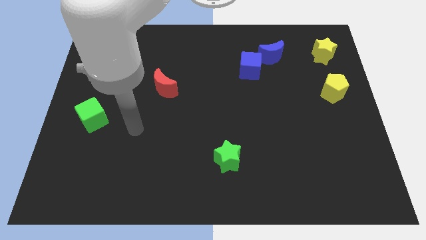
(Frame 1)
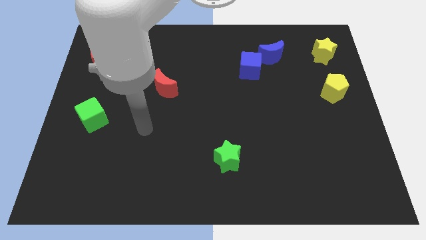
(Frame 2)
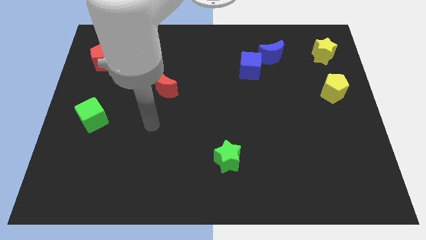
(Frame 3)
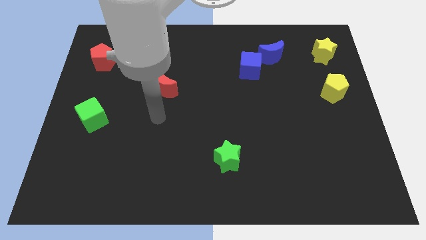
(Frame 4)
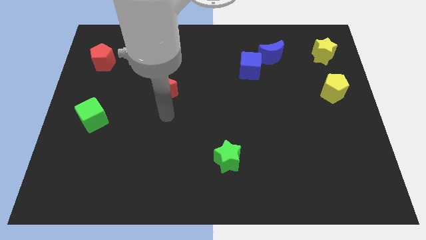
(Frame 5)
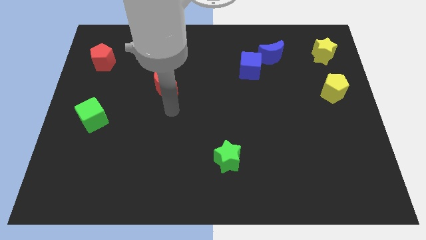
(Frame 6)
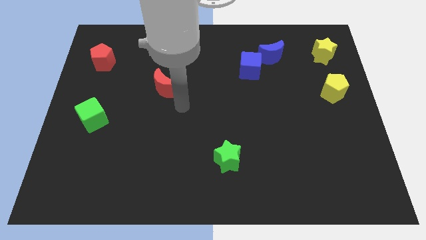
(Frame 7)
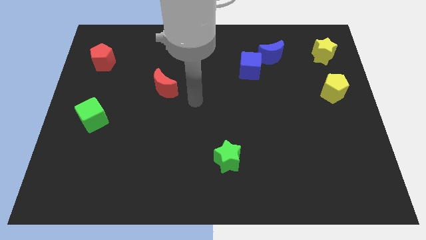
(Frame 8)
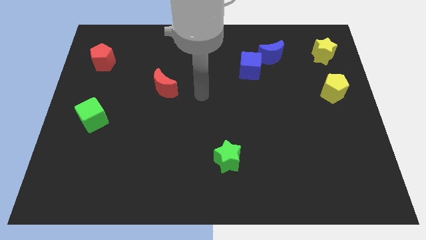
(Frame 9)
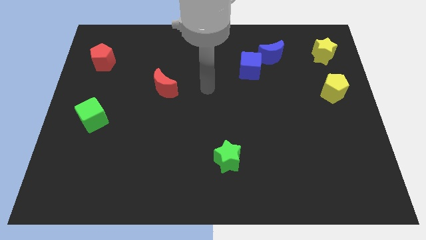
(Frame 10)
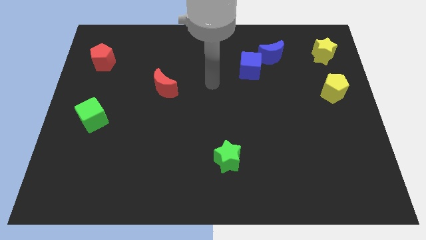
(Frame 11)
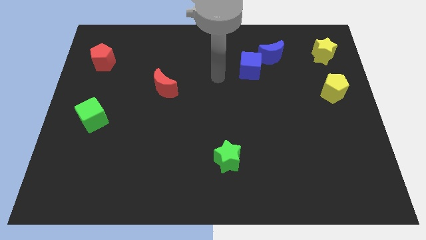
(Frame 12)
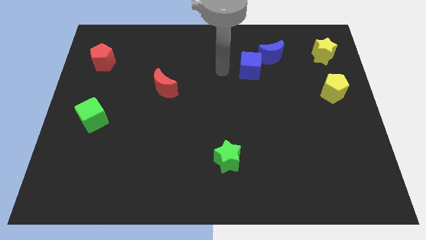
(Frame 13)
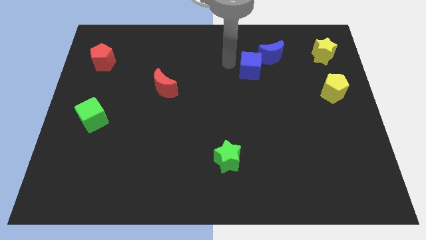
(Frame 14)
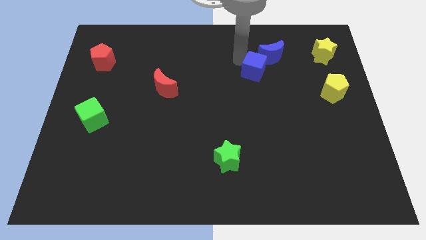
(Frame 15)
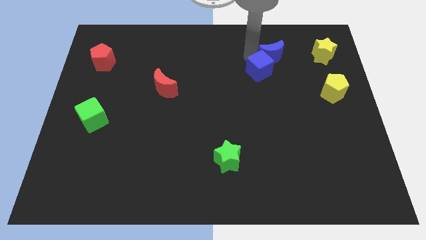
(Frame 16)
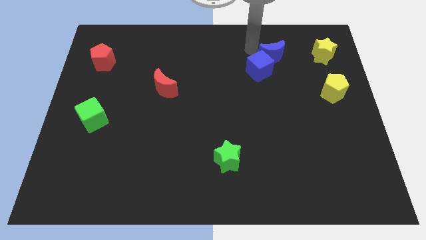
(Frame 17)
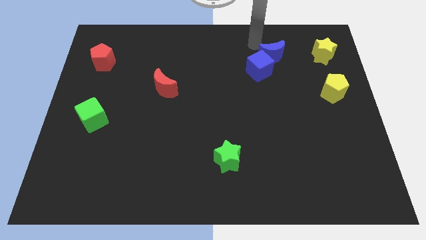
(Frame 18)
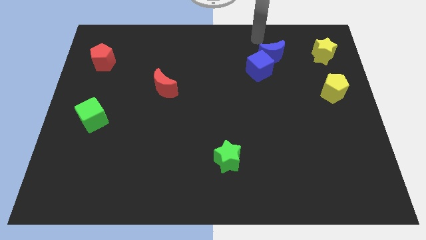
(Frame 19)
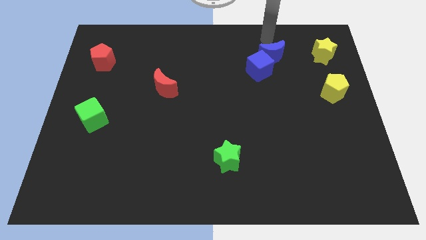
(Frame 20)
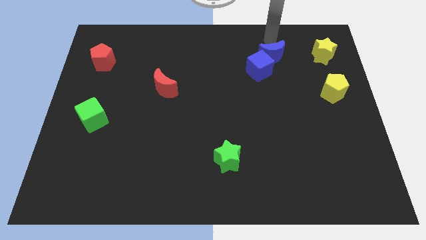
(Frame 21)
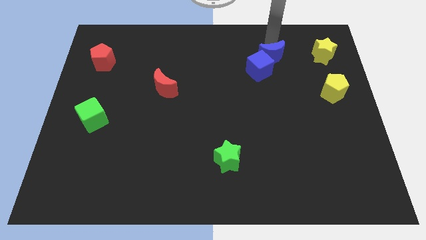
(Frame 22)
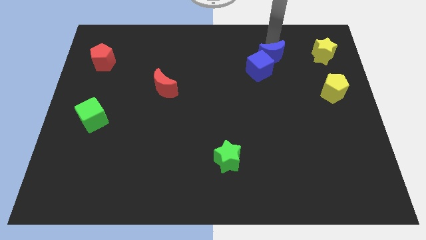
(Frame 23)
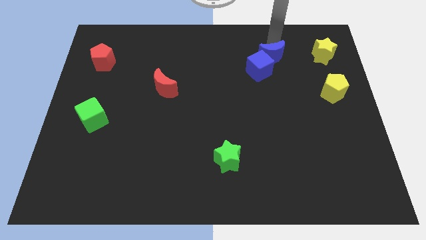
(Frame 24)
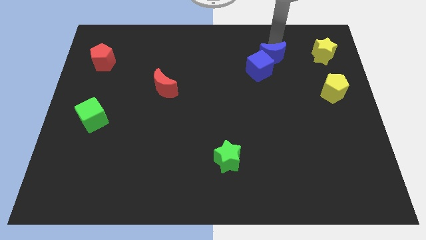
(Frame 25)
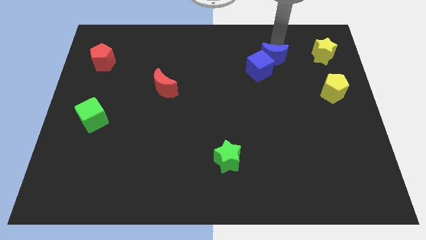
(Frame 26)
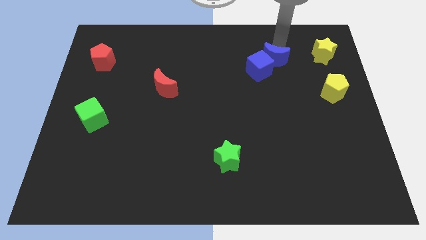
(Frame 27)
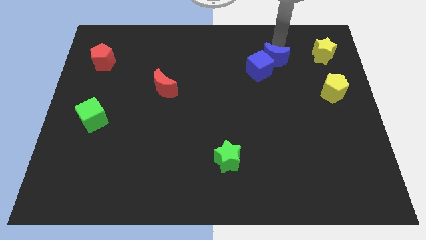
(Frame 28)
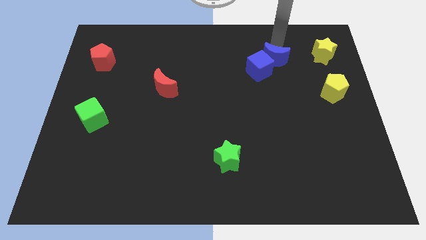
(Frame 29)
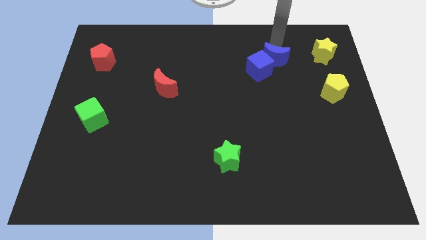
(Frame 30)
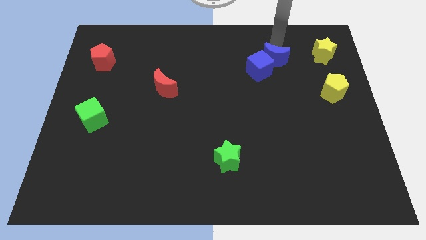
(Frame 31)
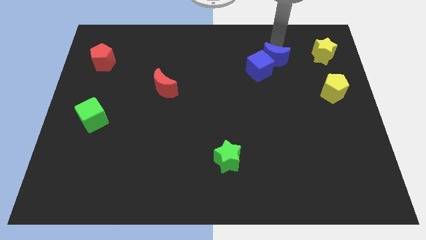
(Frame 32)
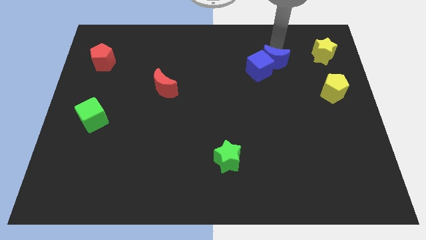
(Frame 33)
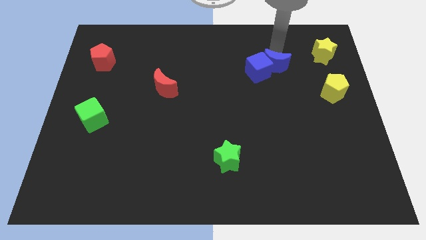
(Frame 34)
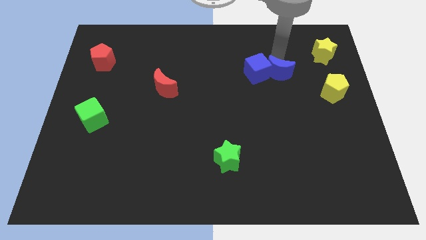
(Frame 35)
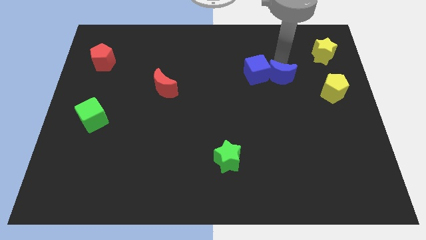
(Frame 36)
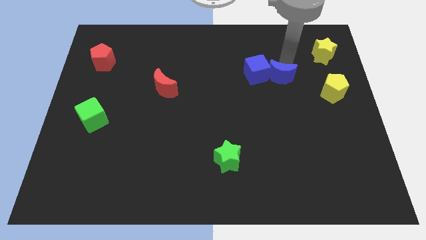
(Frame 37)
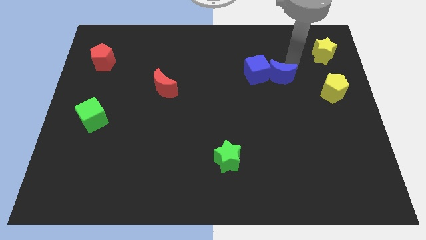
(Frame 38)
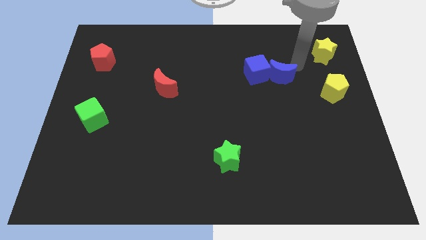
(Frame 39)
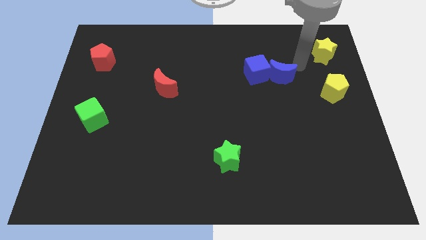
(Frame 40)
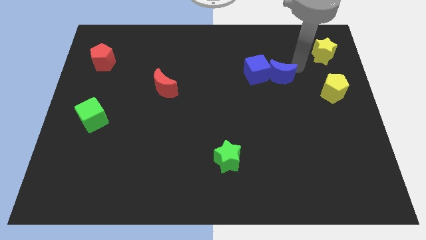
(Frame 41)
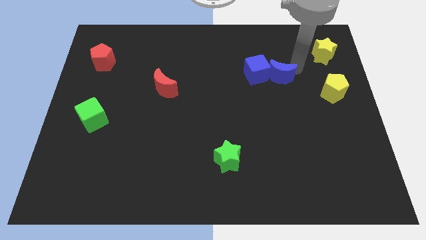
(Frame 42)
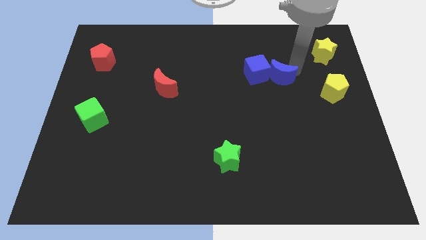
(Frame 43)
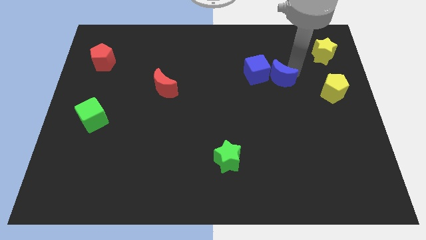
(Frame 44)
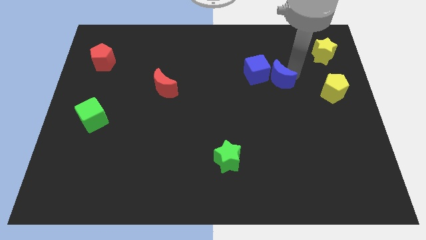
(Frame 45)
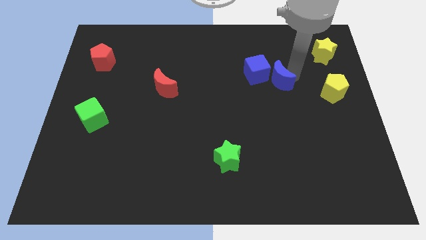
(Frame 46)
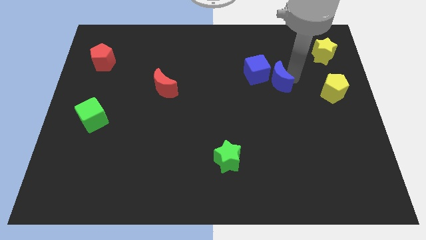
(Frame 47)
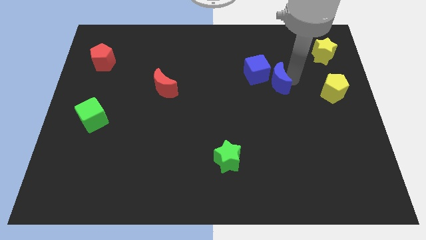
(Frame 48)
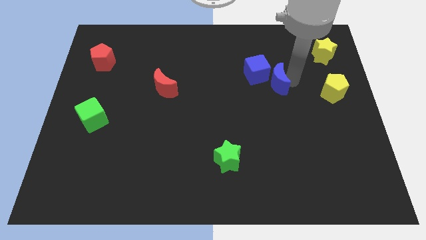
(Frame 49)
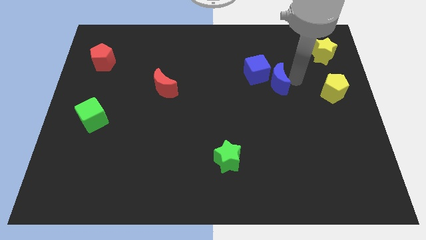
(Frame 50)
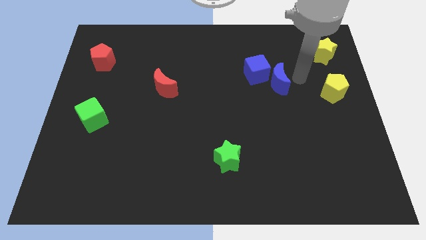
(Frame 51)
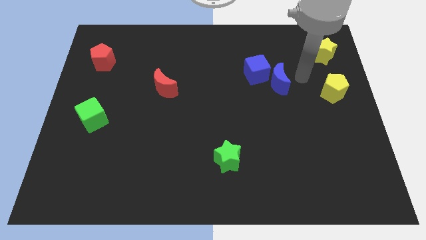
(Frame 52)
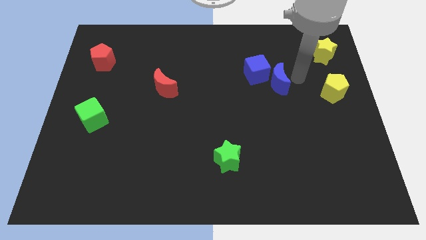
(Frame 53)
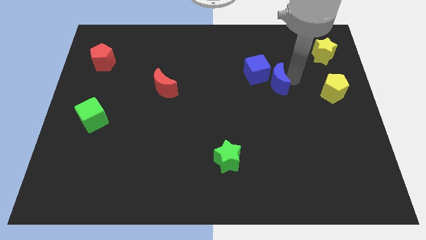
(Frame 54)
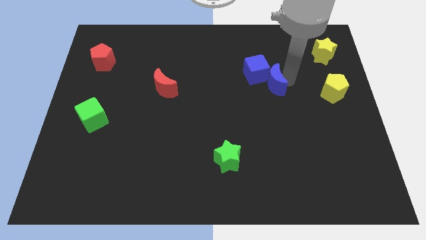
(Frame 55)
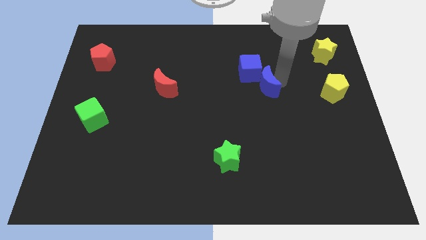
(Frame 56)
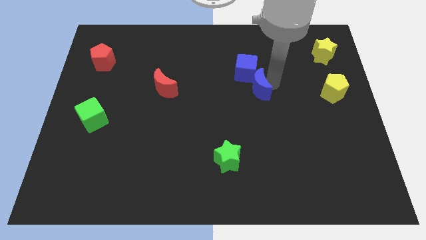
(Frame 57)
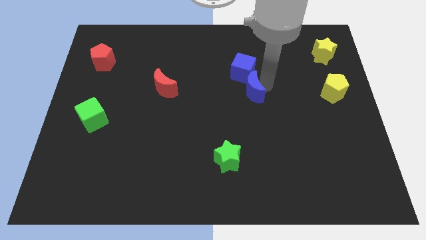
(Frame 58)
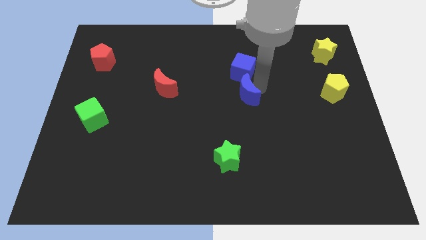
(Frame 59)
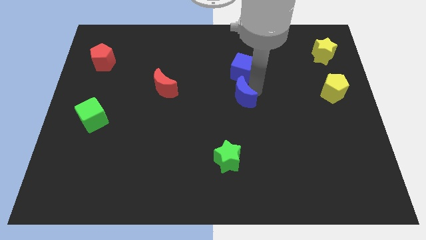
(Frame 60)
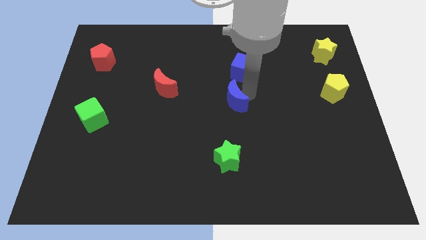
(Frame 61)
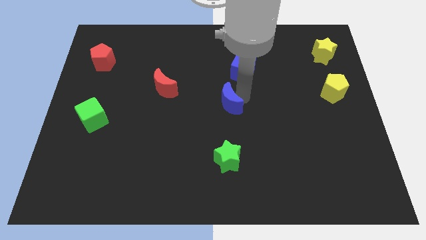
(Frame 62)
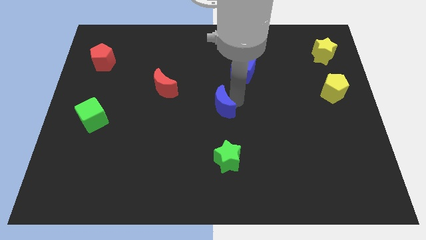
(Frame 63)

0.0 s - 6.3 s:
slide the blue moon downwards and left

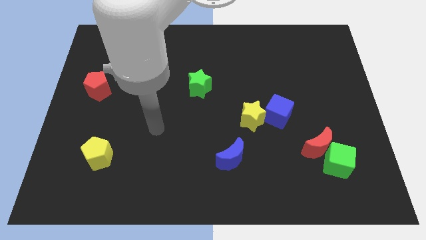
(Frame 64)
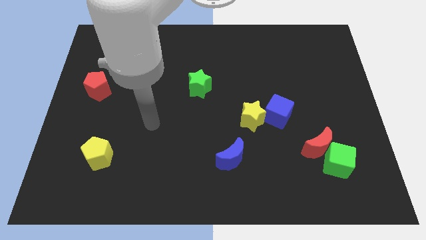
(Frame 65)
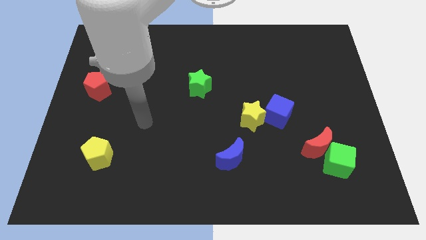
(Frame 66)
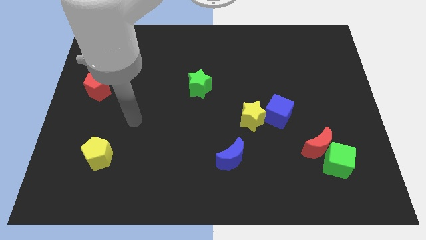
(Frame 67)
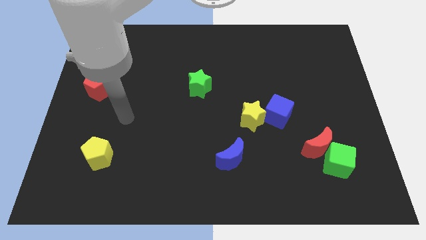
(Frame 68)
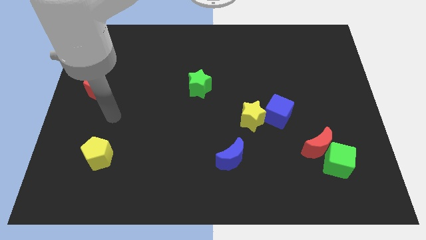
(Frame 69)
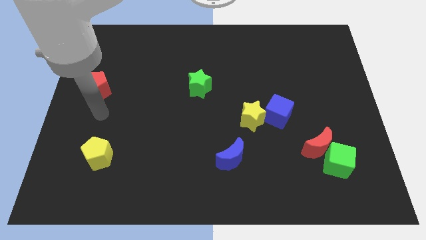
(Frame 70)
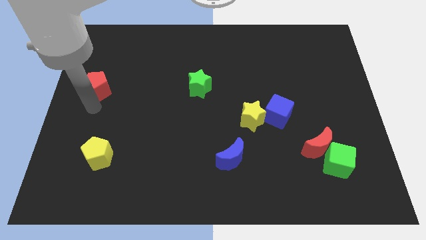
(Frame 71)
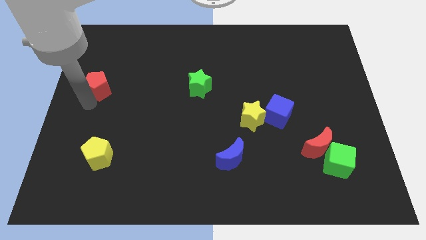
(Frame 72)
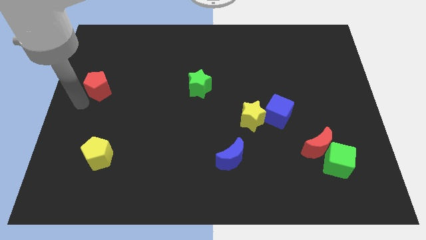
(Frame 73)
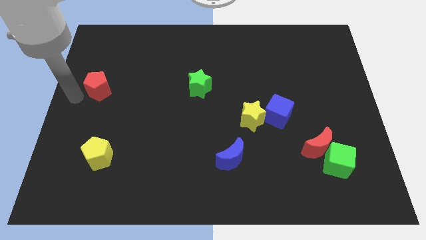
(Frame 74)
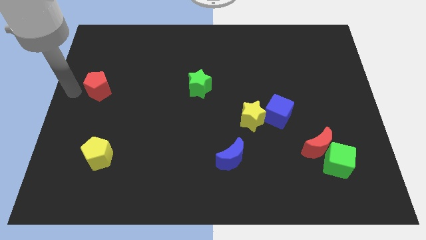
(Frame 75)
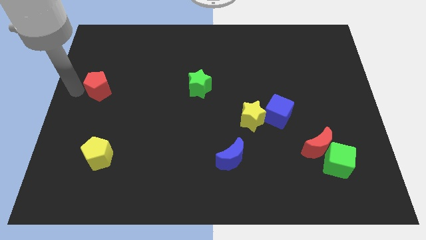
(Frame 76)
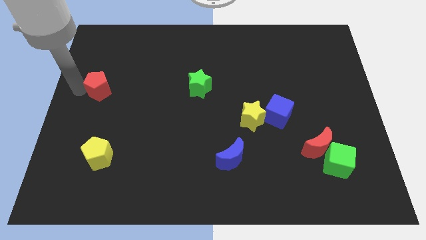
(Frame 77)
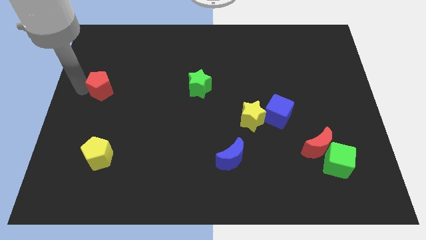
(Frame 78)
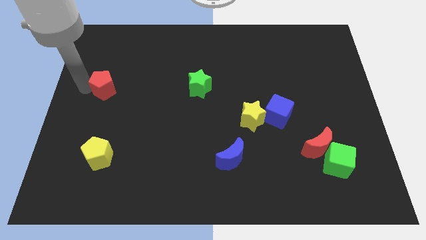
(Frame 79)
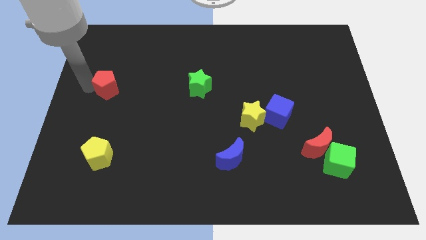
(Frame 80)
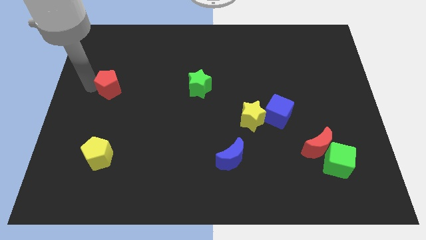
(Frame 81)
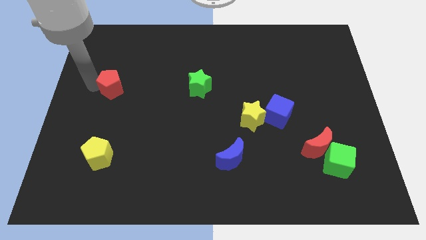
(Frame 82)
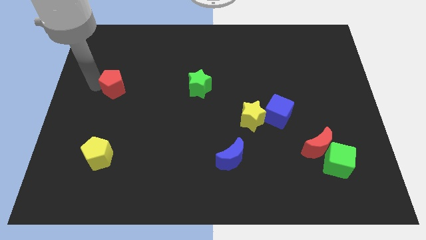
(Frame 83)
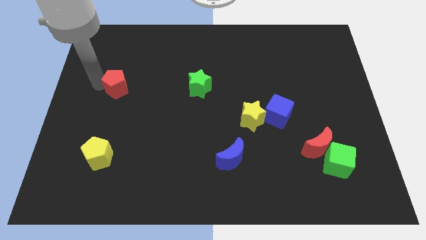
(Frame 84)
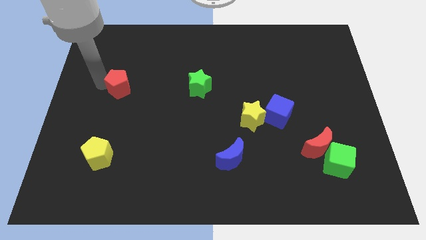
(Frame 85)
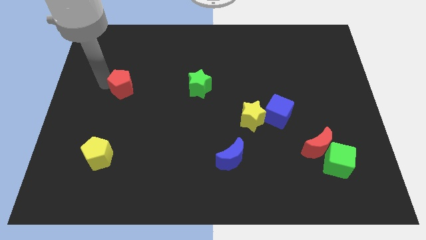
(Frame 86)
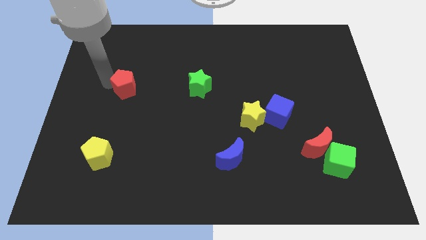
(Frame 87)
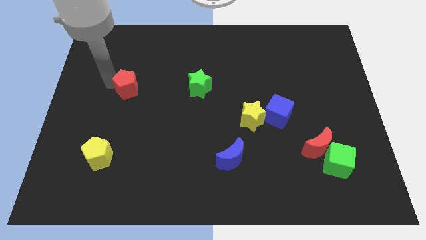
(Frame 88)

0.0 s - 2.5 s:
slide the red pentagon to the right somewhat
